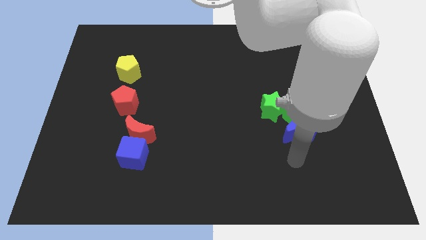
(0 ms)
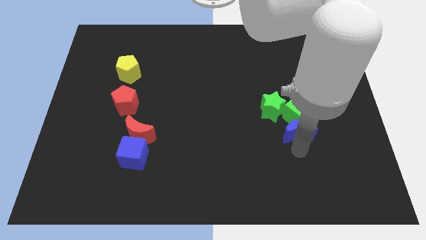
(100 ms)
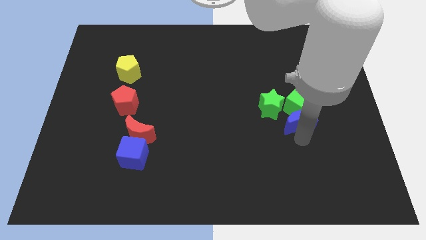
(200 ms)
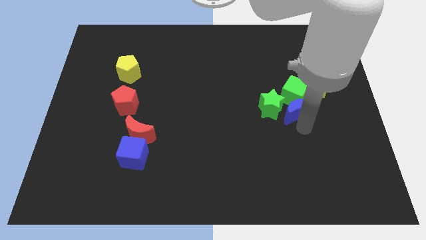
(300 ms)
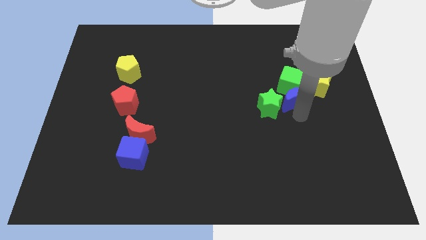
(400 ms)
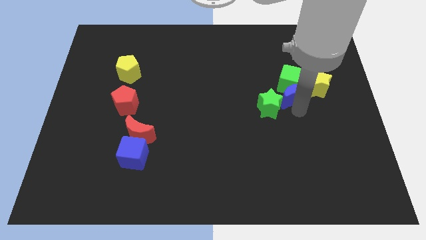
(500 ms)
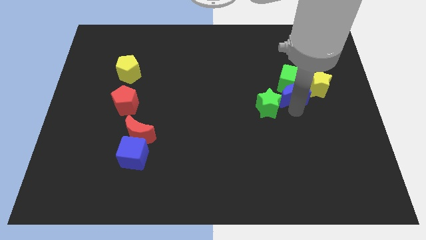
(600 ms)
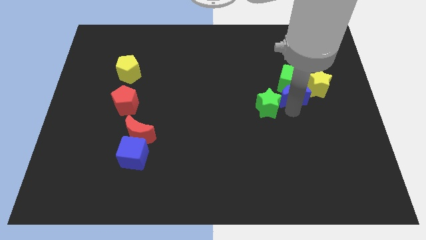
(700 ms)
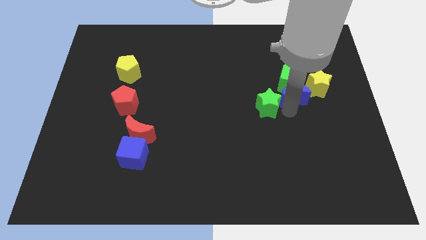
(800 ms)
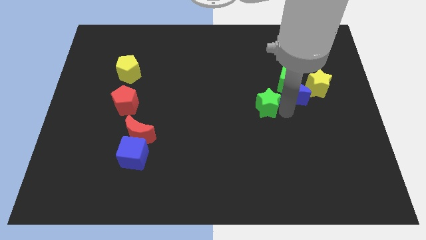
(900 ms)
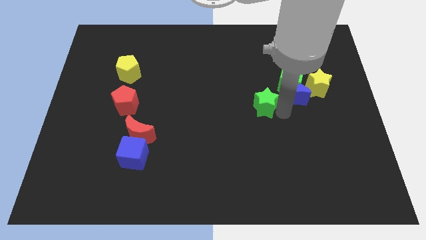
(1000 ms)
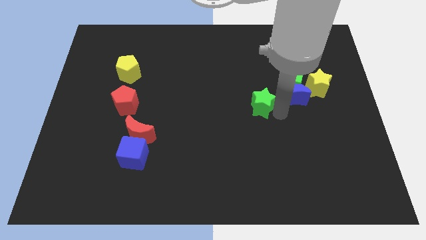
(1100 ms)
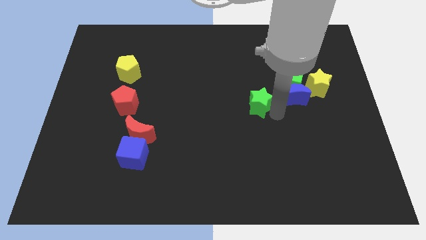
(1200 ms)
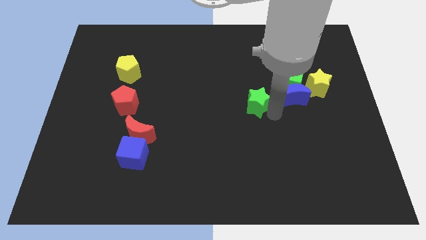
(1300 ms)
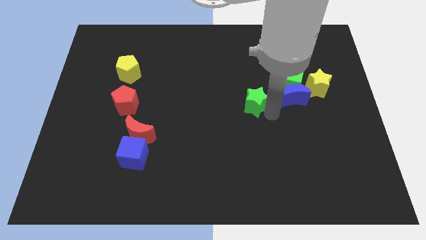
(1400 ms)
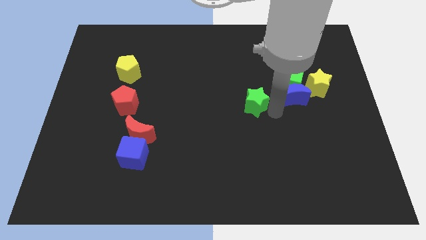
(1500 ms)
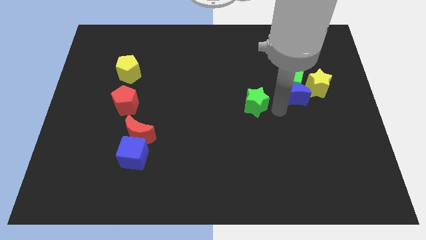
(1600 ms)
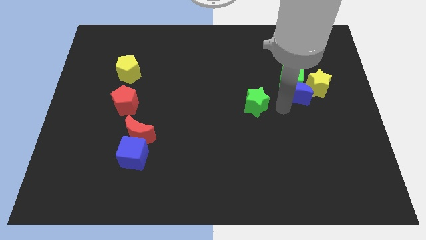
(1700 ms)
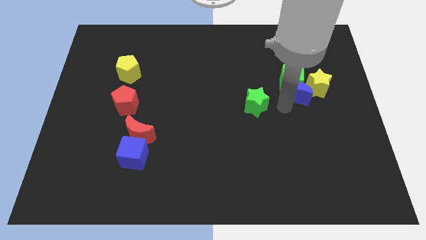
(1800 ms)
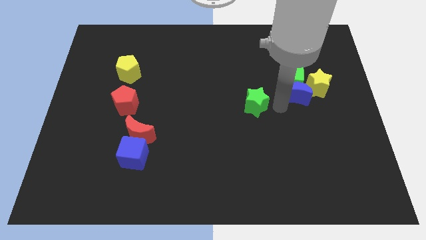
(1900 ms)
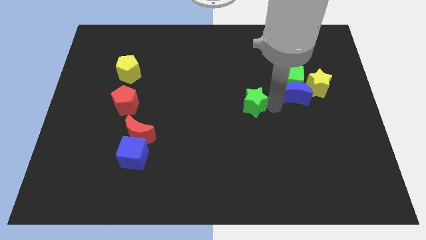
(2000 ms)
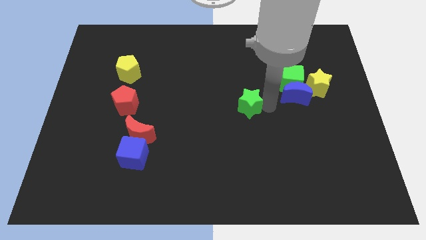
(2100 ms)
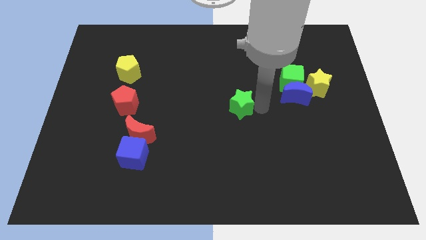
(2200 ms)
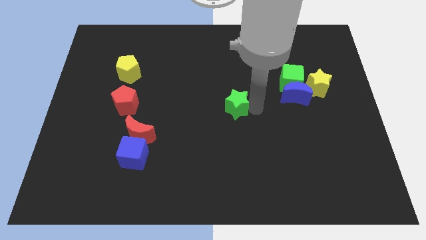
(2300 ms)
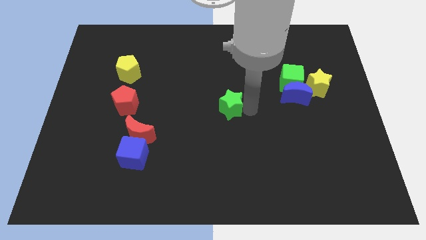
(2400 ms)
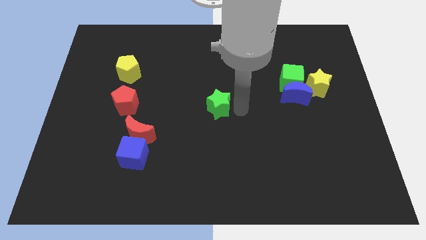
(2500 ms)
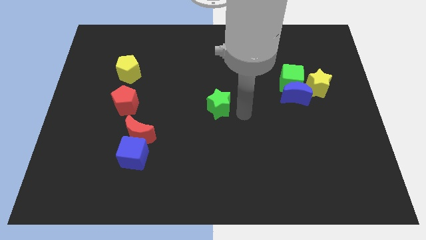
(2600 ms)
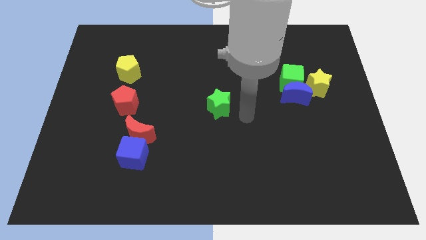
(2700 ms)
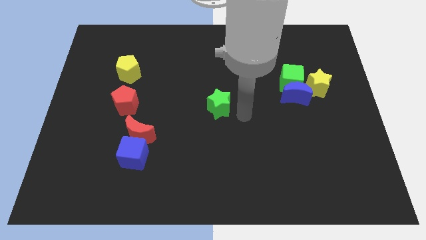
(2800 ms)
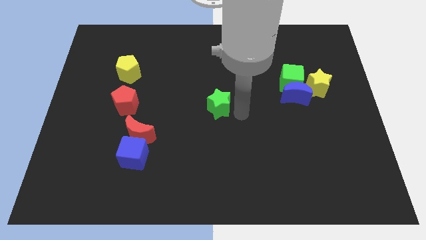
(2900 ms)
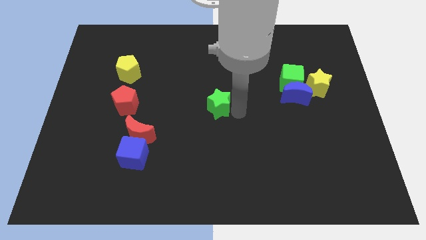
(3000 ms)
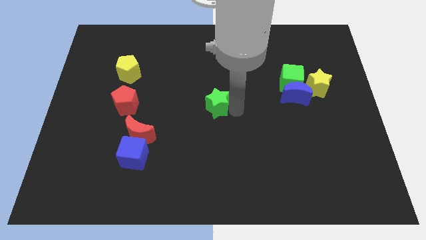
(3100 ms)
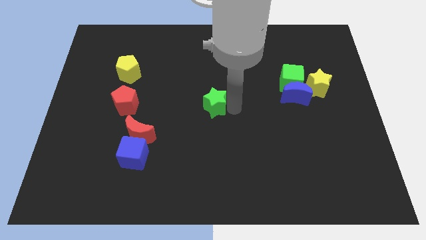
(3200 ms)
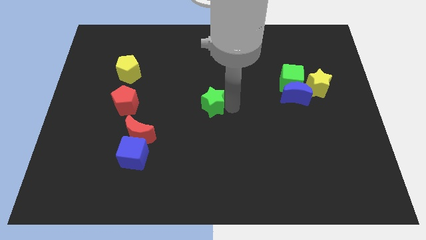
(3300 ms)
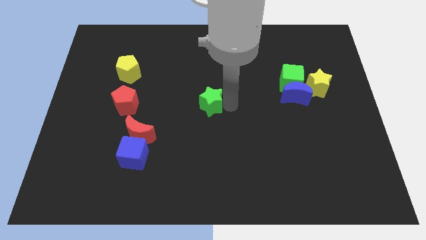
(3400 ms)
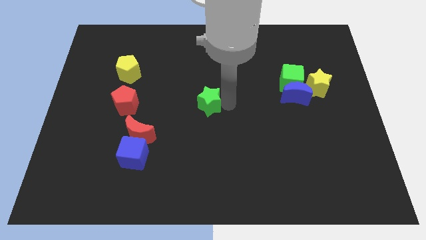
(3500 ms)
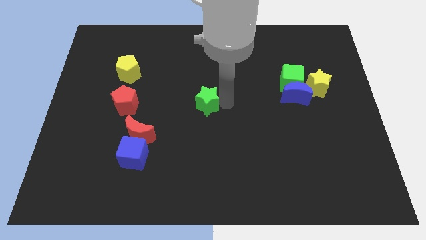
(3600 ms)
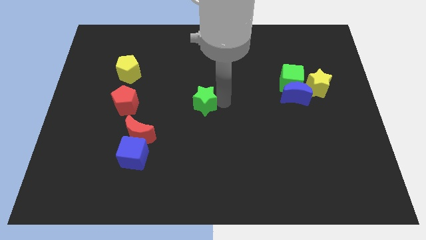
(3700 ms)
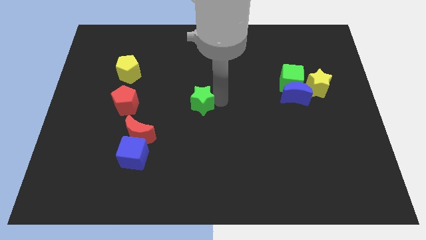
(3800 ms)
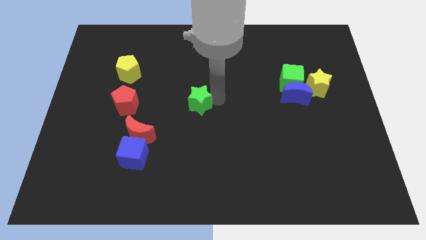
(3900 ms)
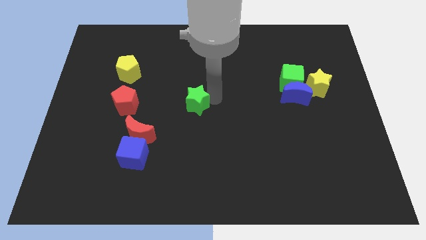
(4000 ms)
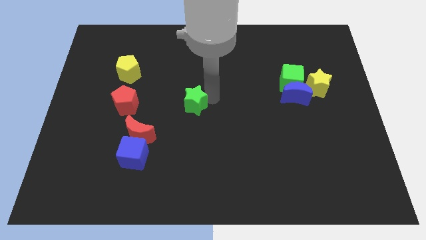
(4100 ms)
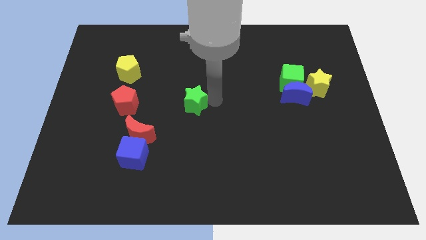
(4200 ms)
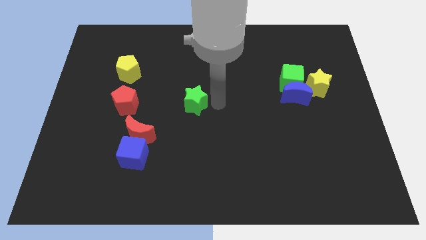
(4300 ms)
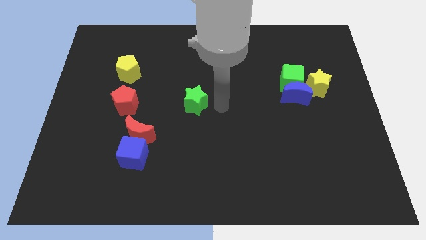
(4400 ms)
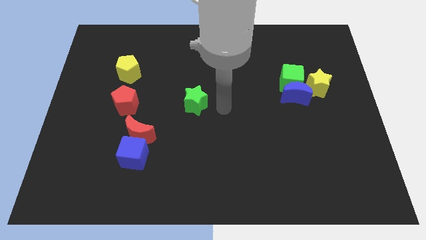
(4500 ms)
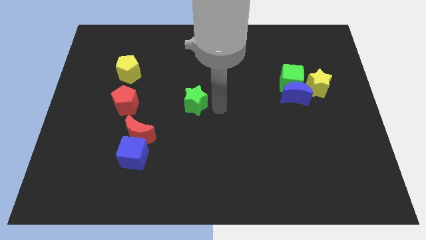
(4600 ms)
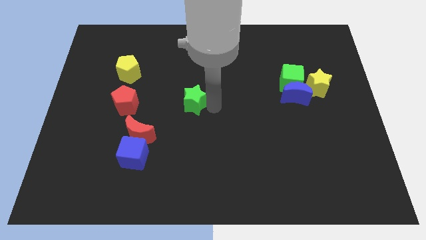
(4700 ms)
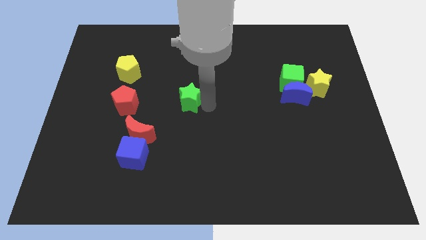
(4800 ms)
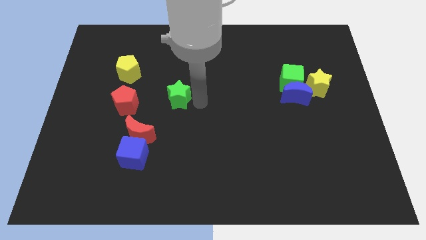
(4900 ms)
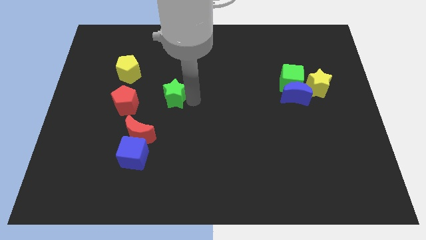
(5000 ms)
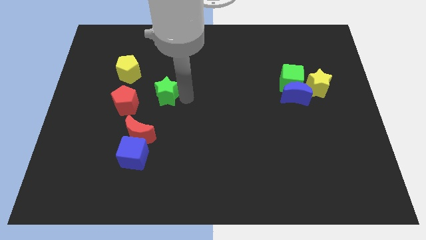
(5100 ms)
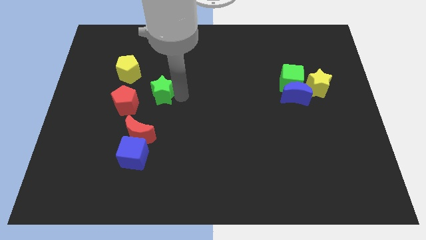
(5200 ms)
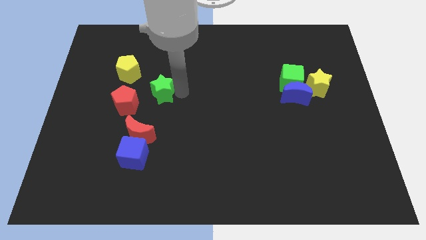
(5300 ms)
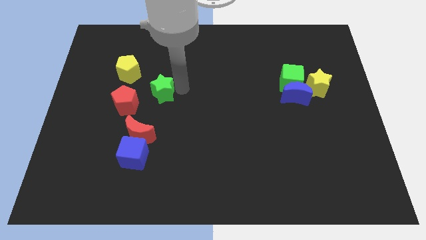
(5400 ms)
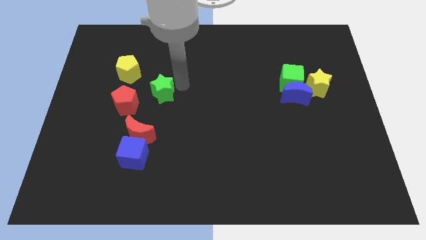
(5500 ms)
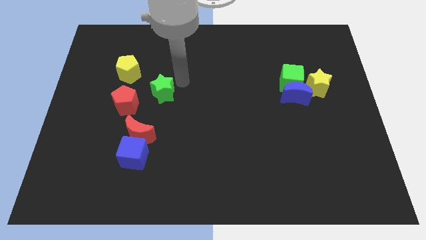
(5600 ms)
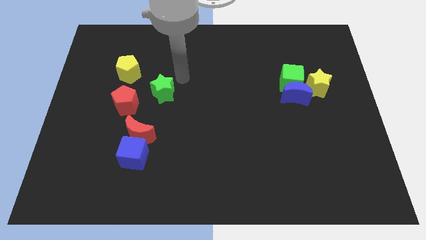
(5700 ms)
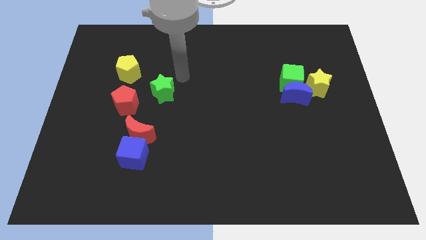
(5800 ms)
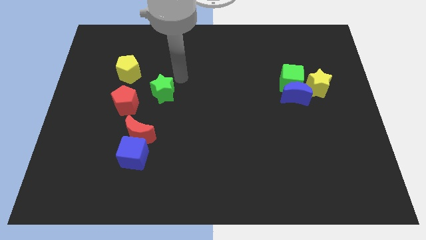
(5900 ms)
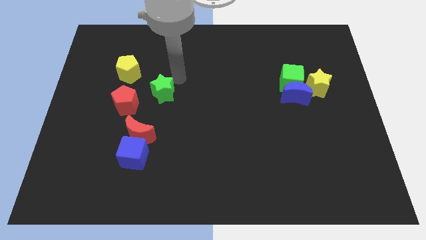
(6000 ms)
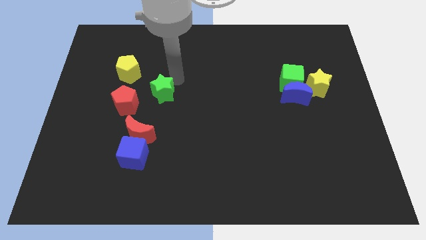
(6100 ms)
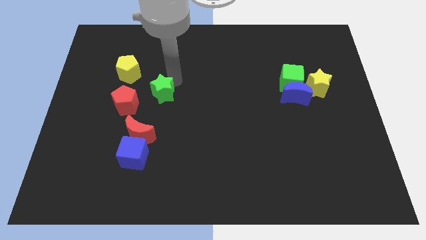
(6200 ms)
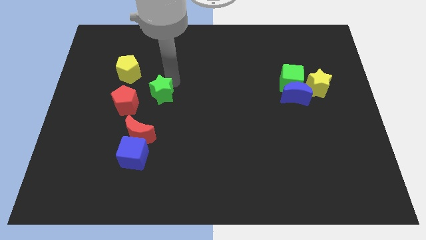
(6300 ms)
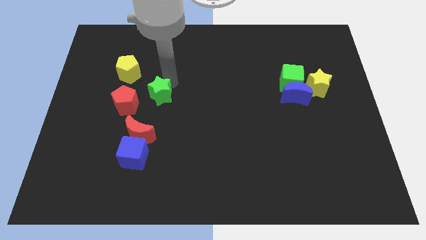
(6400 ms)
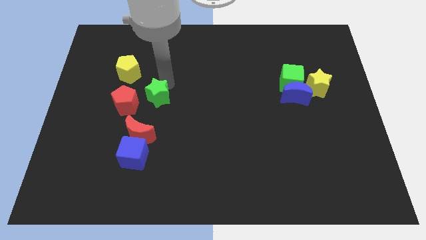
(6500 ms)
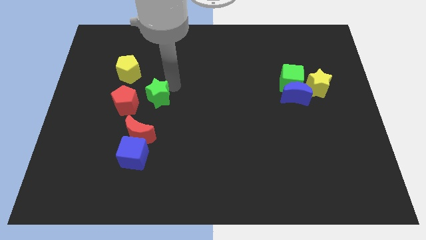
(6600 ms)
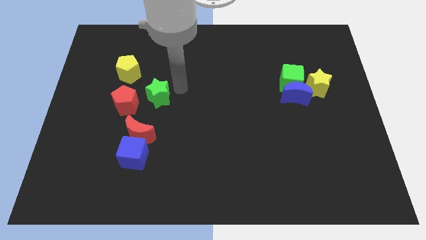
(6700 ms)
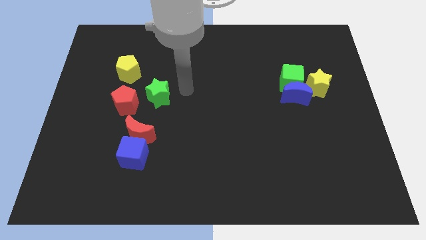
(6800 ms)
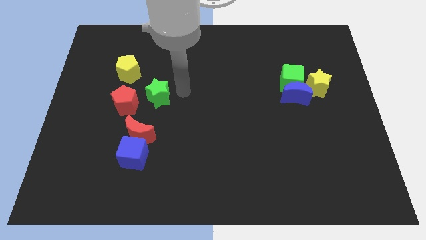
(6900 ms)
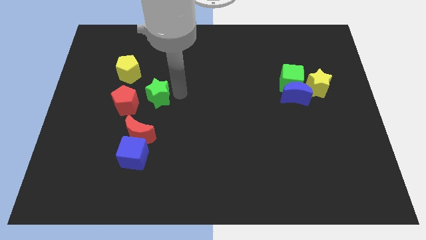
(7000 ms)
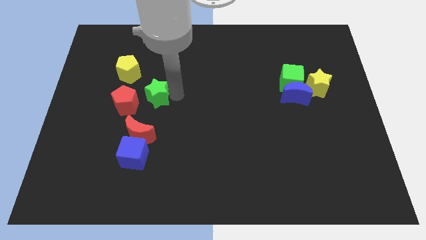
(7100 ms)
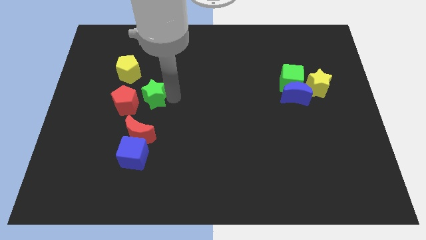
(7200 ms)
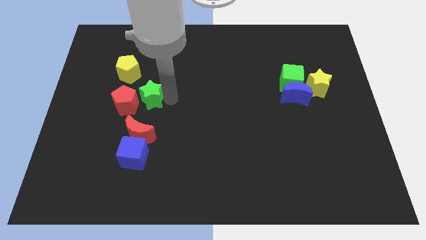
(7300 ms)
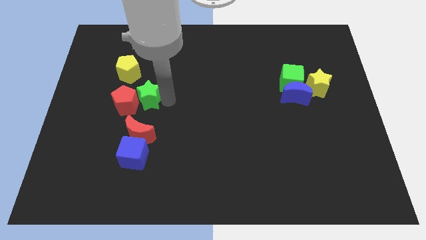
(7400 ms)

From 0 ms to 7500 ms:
move the green star close to the red pentagon
